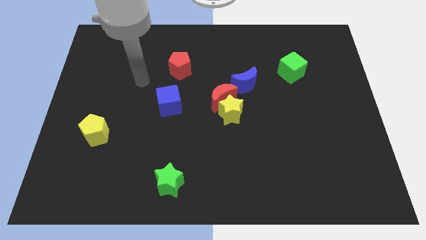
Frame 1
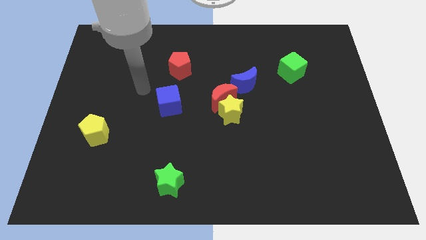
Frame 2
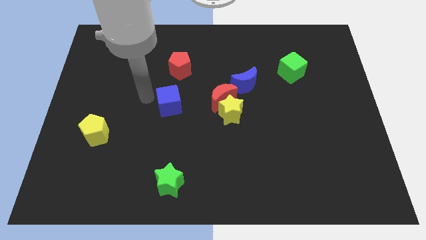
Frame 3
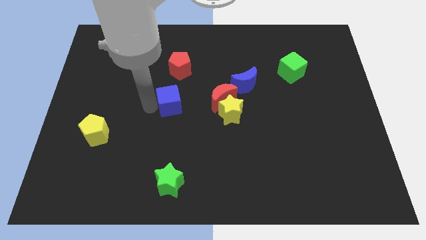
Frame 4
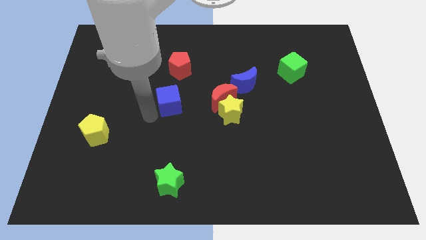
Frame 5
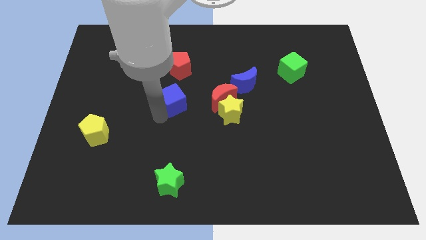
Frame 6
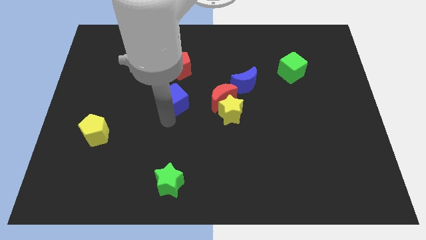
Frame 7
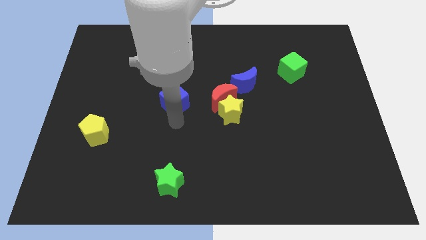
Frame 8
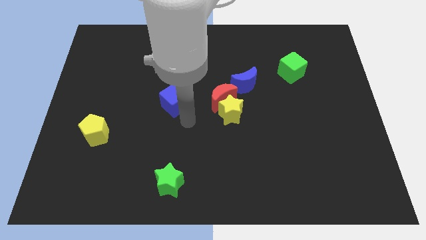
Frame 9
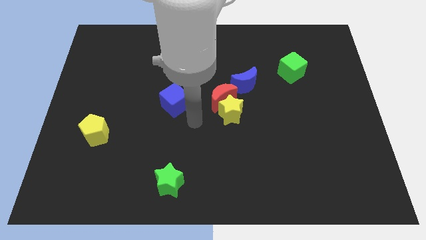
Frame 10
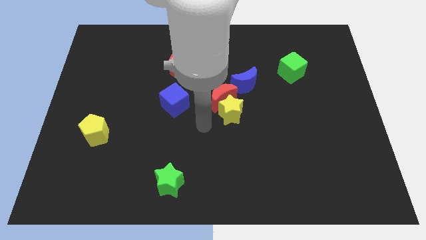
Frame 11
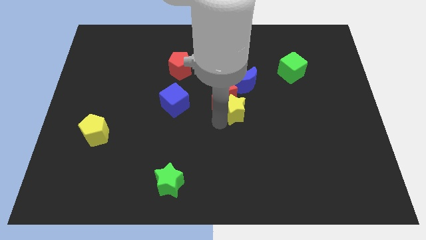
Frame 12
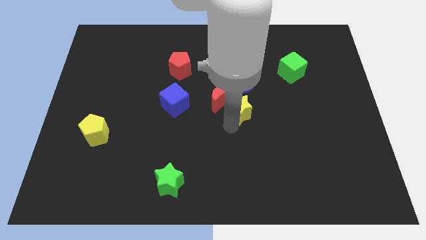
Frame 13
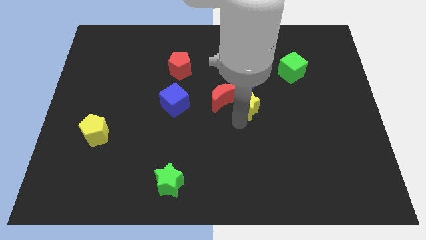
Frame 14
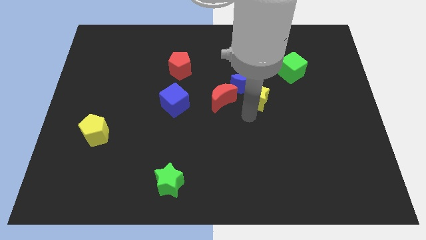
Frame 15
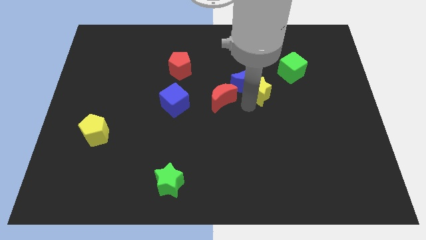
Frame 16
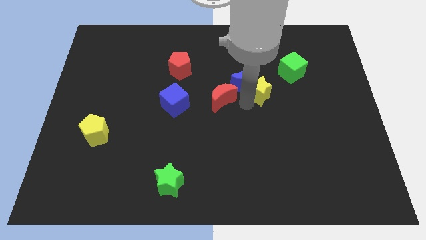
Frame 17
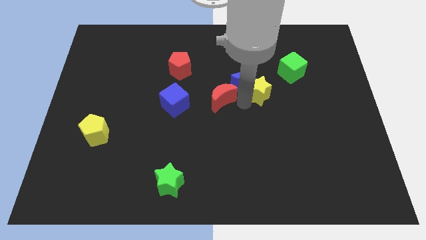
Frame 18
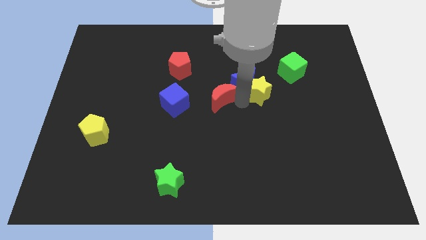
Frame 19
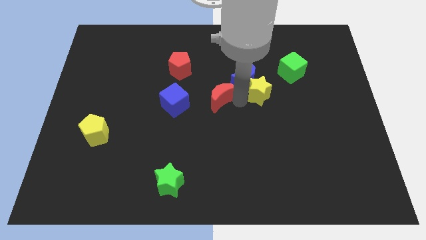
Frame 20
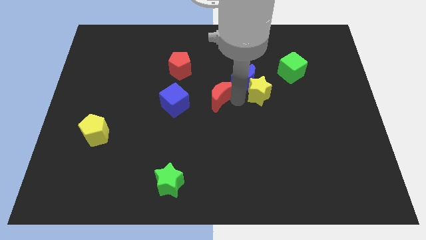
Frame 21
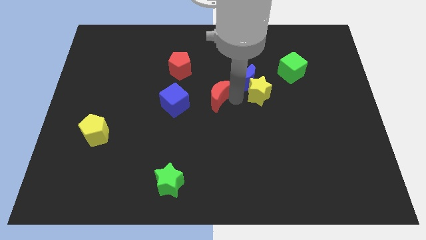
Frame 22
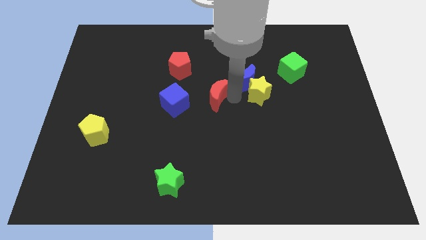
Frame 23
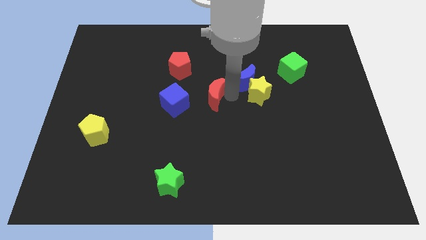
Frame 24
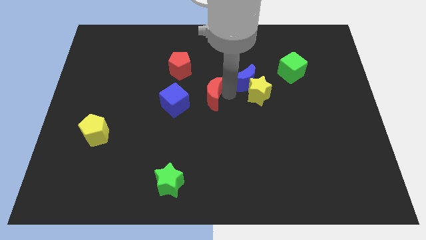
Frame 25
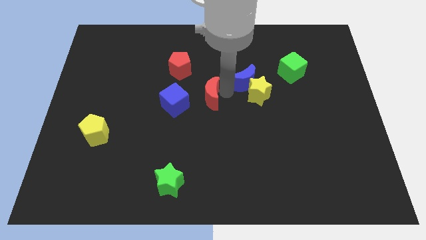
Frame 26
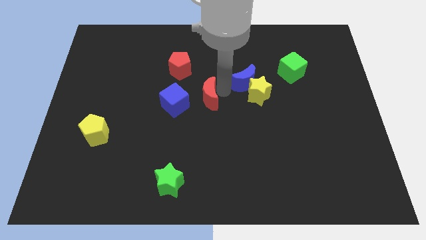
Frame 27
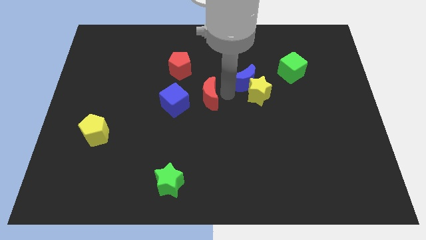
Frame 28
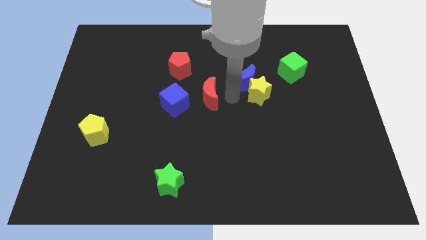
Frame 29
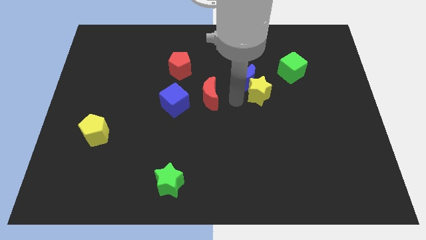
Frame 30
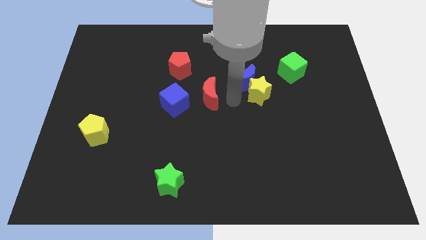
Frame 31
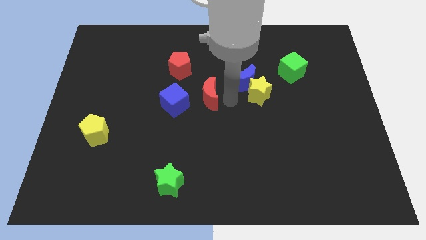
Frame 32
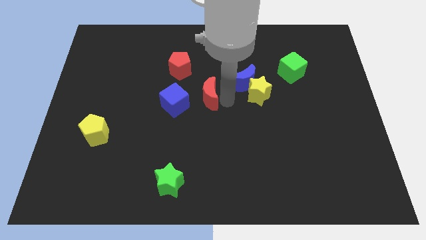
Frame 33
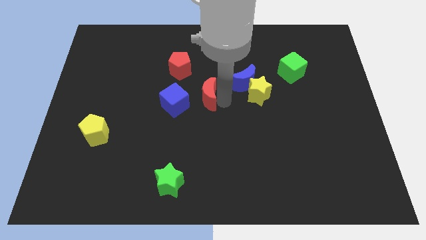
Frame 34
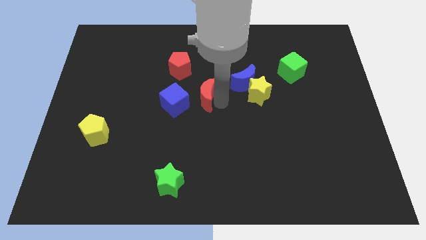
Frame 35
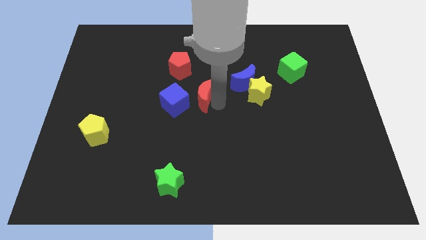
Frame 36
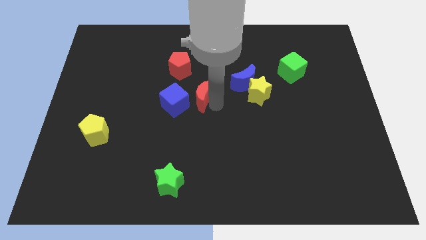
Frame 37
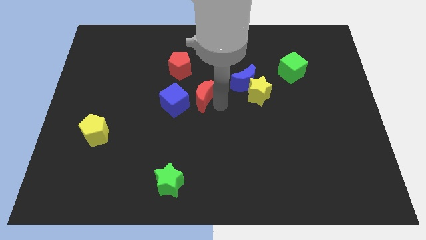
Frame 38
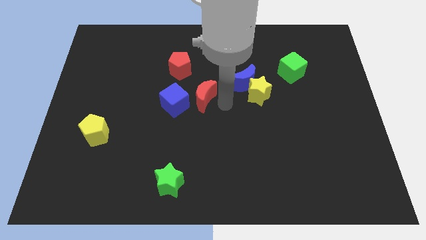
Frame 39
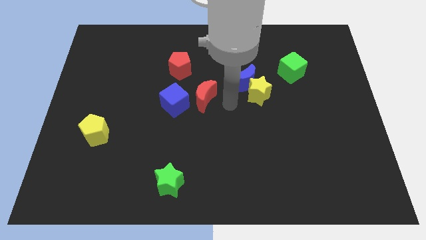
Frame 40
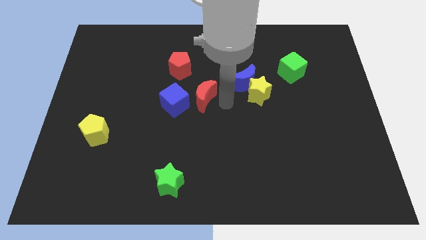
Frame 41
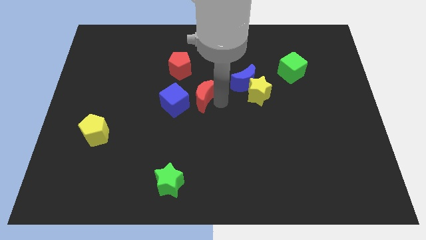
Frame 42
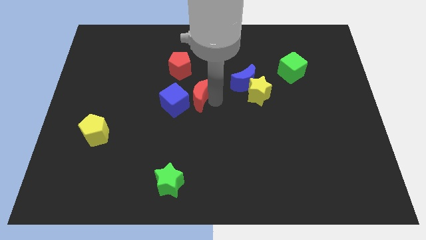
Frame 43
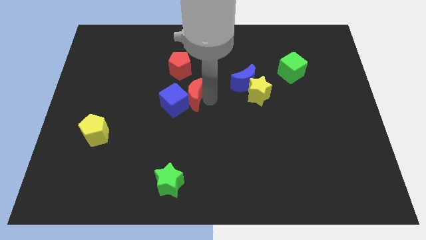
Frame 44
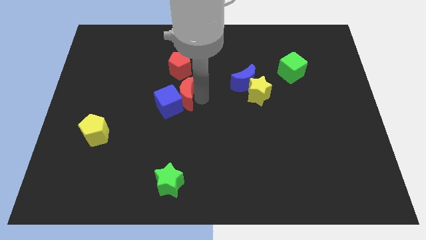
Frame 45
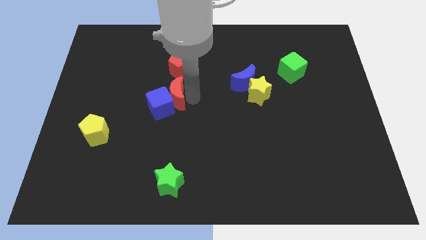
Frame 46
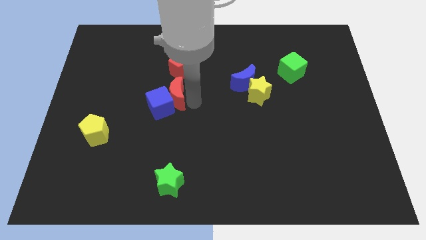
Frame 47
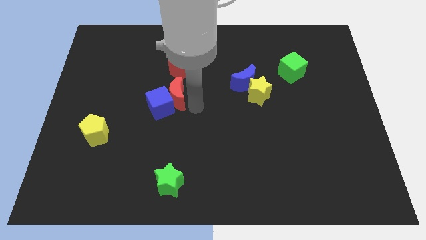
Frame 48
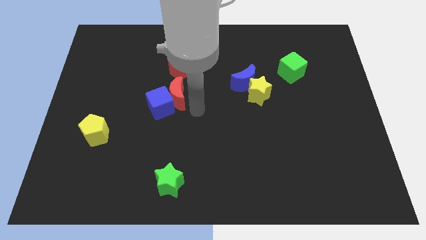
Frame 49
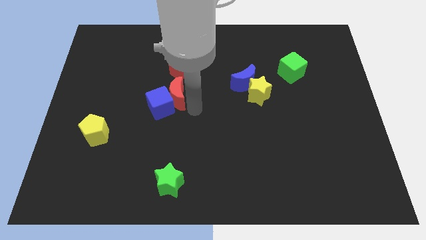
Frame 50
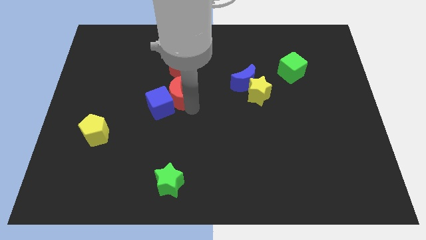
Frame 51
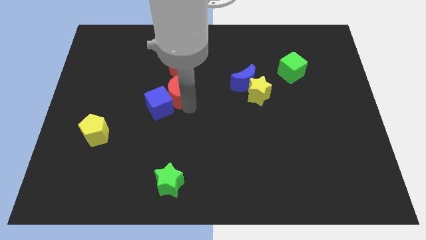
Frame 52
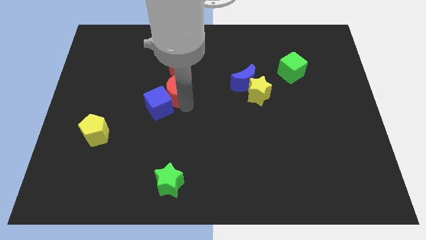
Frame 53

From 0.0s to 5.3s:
slide the red moon to the bottom left side of the red pentagon

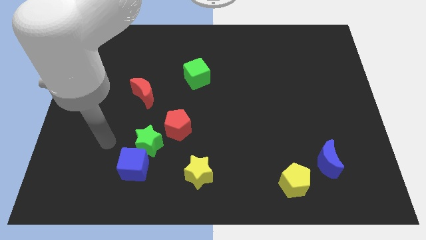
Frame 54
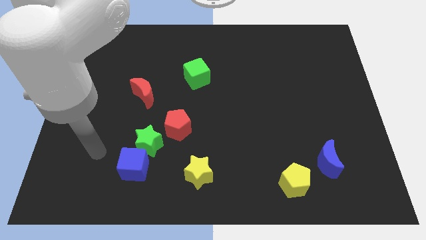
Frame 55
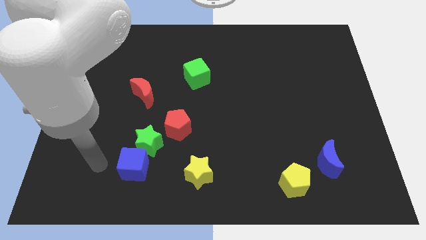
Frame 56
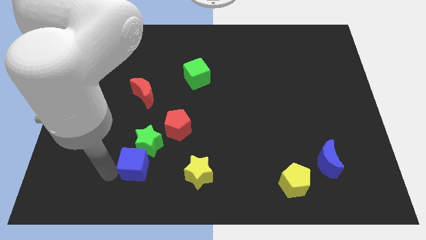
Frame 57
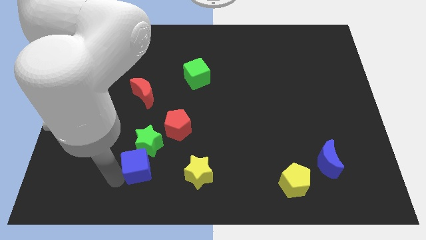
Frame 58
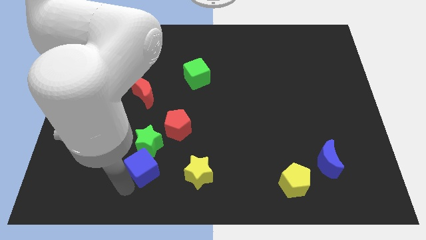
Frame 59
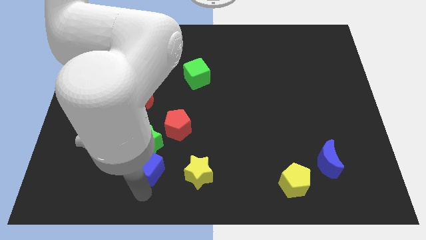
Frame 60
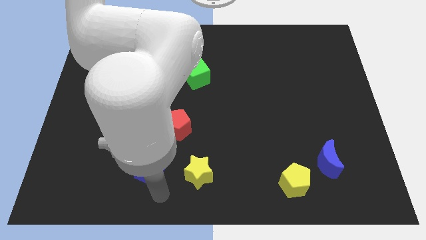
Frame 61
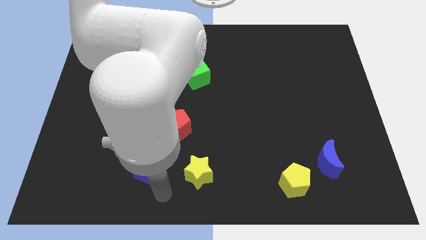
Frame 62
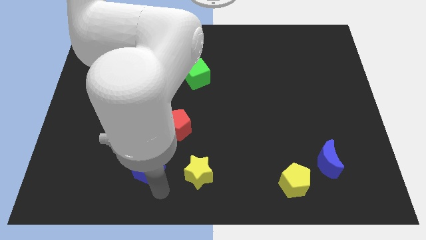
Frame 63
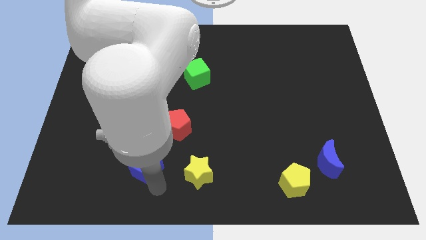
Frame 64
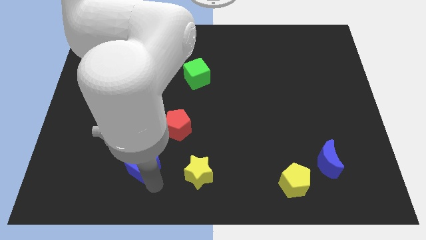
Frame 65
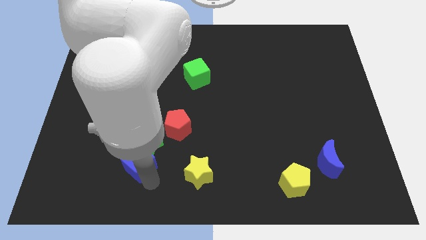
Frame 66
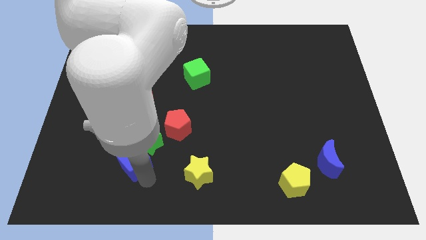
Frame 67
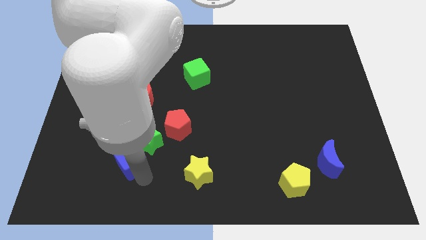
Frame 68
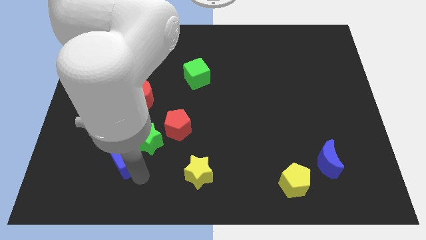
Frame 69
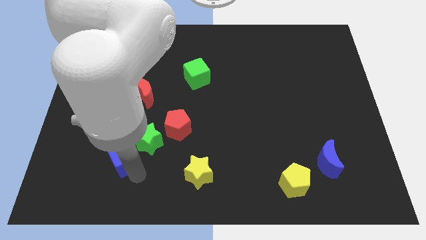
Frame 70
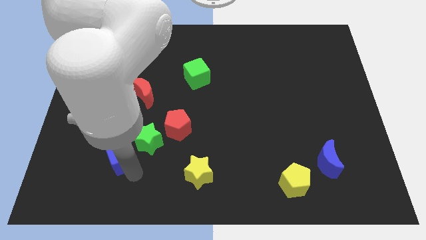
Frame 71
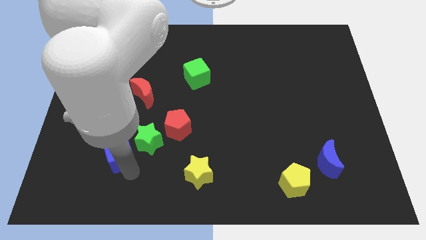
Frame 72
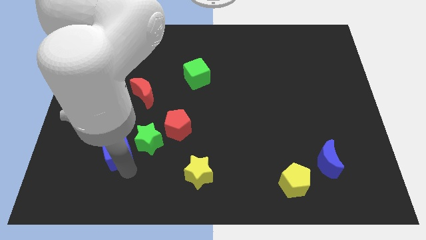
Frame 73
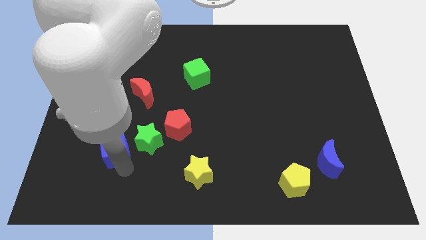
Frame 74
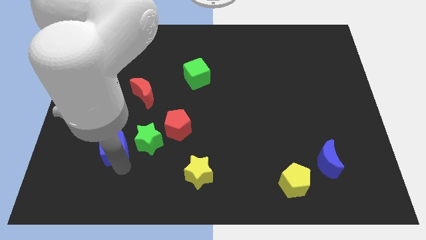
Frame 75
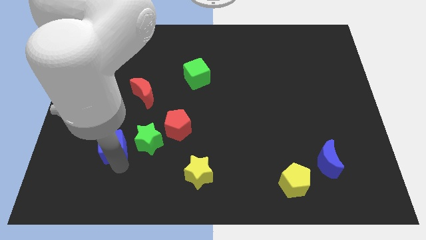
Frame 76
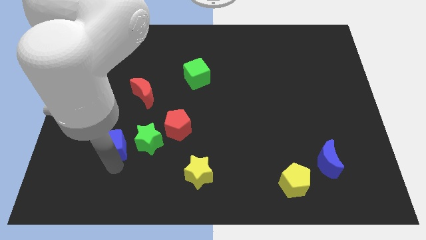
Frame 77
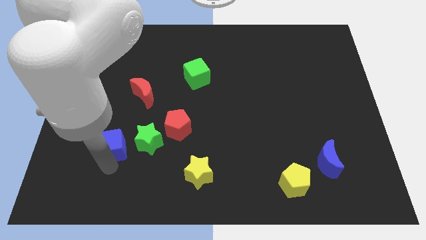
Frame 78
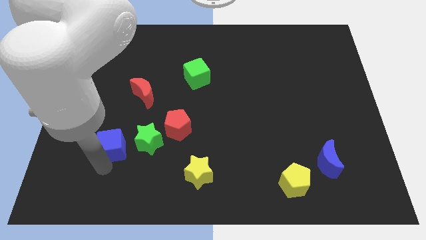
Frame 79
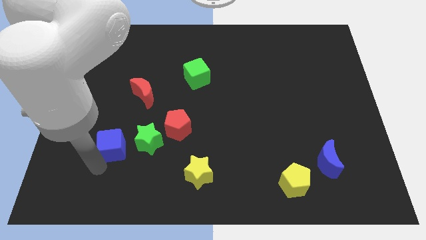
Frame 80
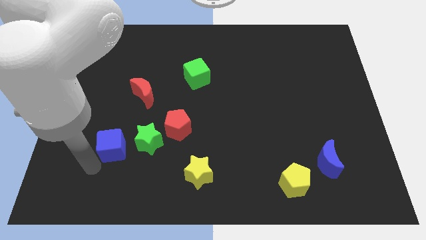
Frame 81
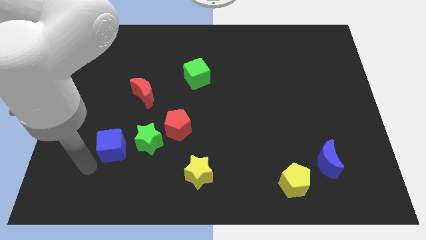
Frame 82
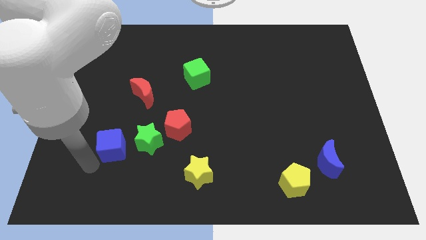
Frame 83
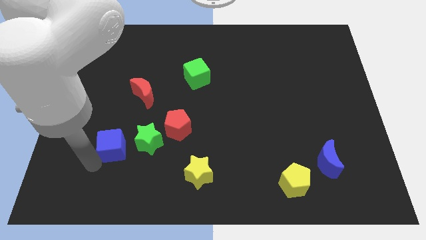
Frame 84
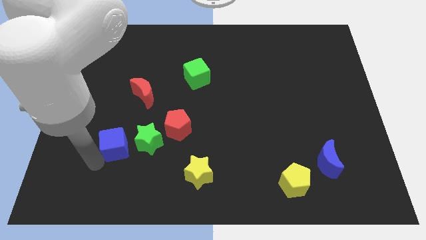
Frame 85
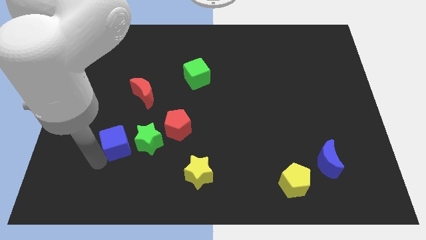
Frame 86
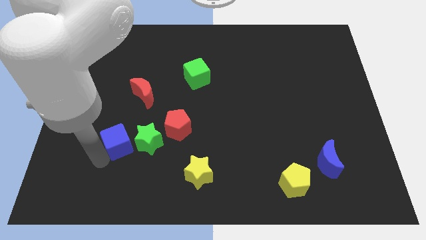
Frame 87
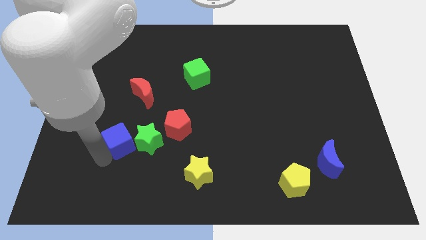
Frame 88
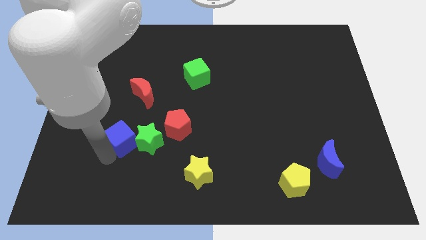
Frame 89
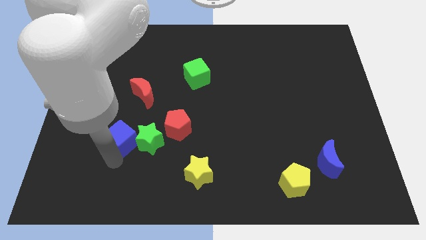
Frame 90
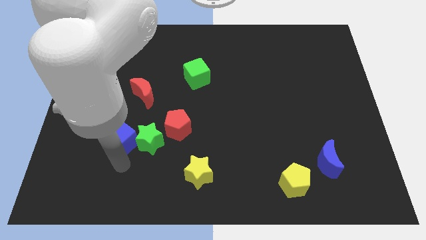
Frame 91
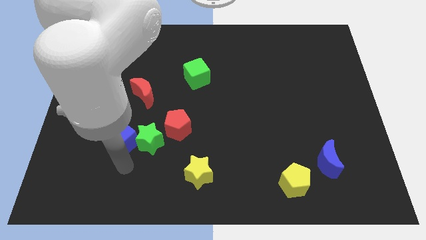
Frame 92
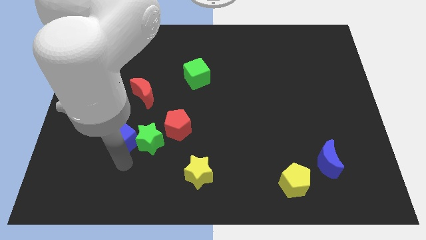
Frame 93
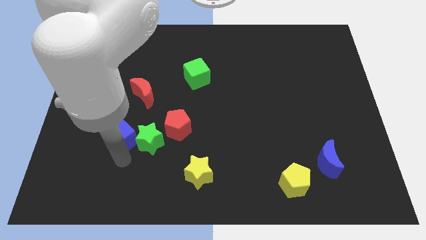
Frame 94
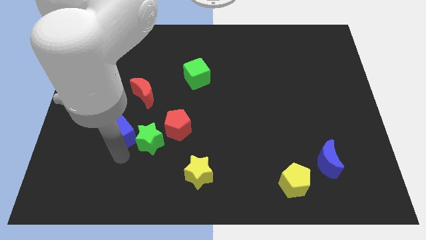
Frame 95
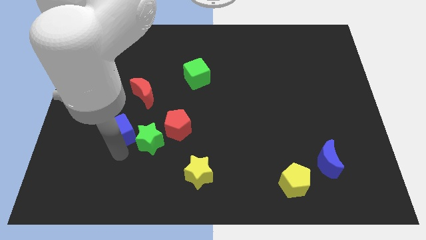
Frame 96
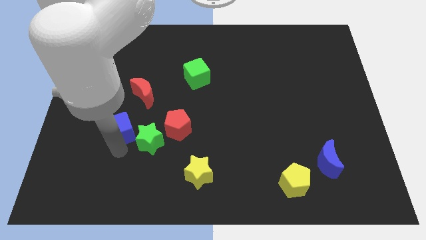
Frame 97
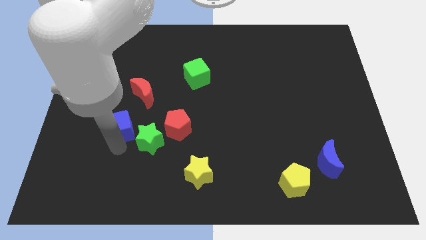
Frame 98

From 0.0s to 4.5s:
push the blue cube to the bottom left side of the red moon
